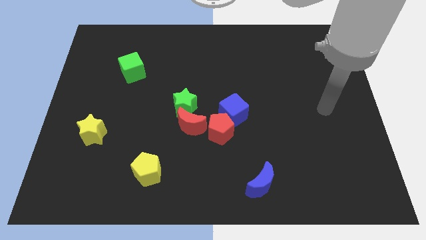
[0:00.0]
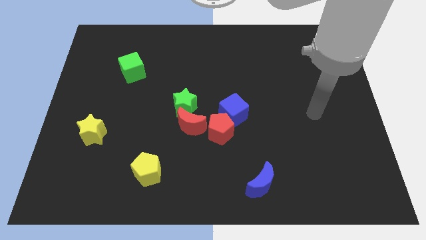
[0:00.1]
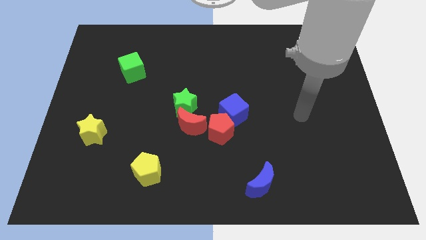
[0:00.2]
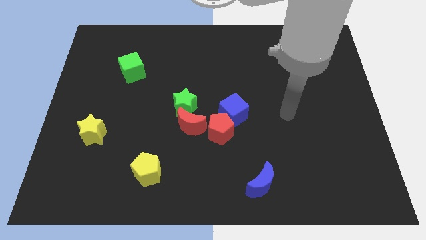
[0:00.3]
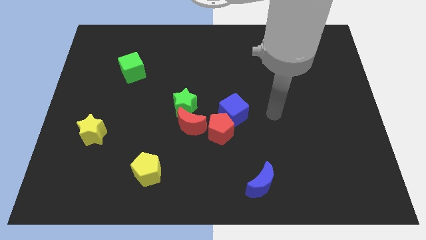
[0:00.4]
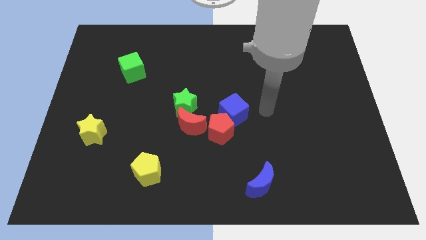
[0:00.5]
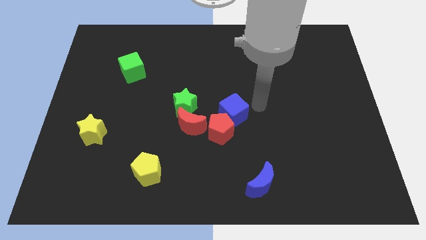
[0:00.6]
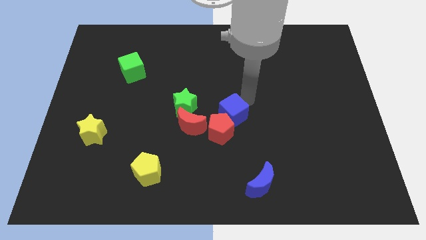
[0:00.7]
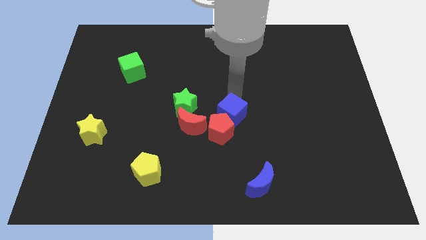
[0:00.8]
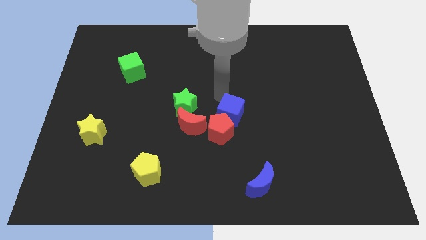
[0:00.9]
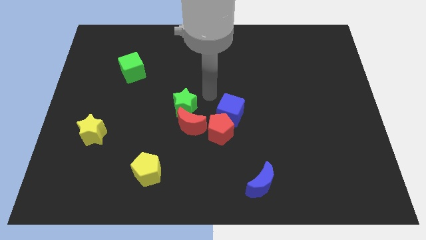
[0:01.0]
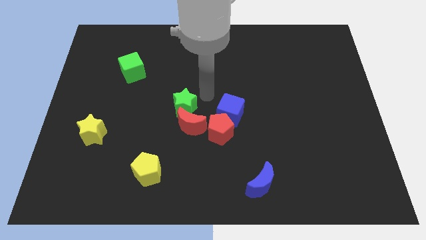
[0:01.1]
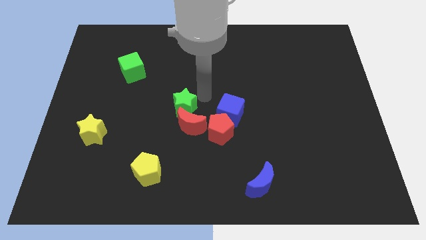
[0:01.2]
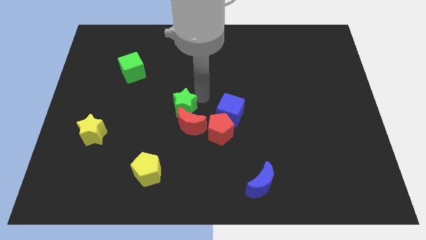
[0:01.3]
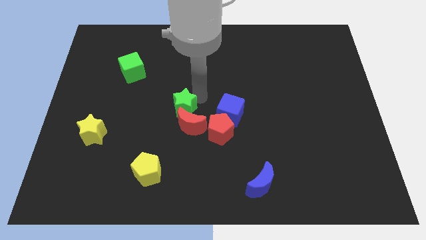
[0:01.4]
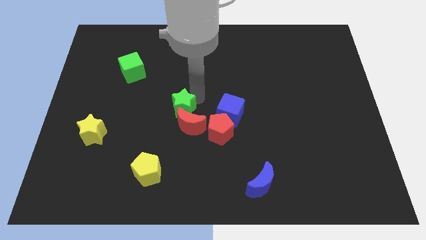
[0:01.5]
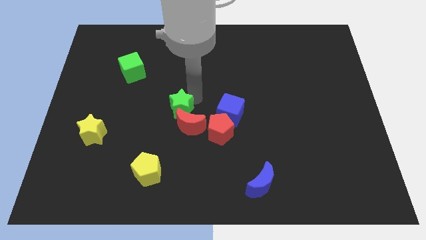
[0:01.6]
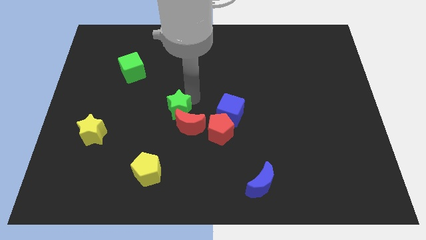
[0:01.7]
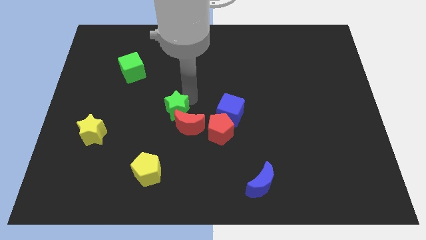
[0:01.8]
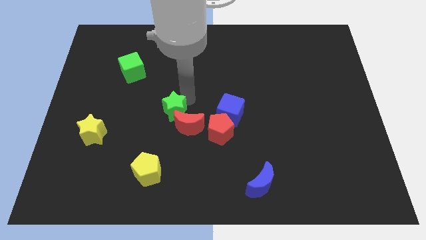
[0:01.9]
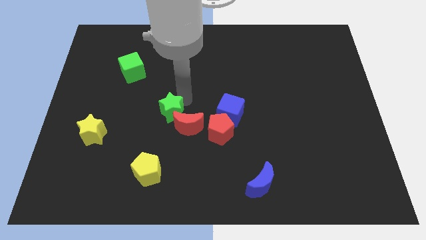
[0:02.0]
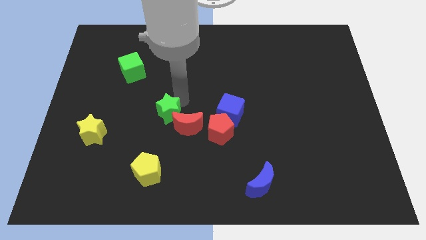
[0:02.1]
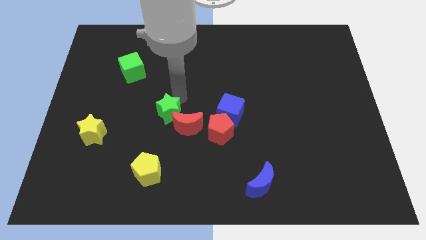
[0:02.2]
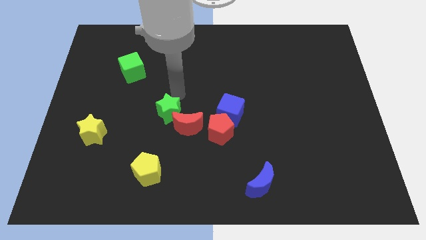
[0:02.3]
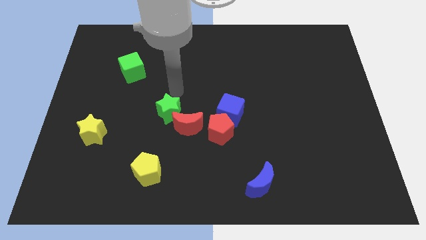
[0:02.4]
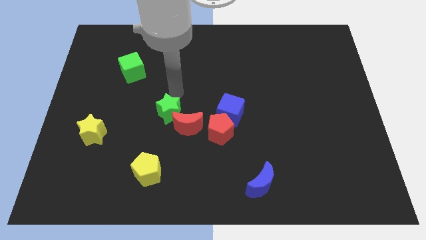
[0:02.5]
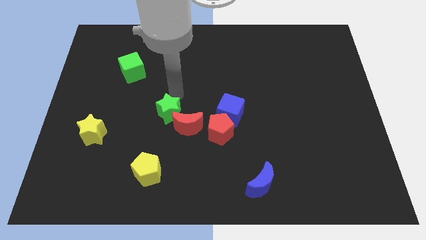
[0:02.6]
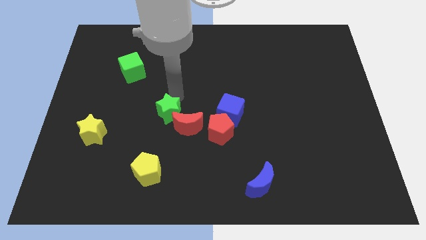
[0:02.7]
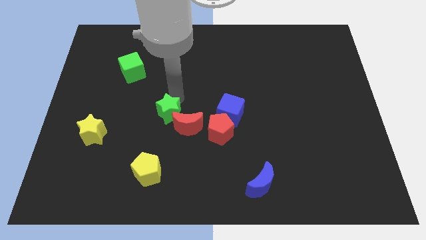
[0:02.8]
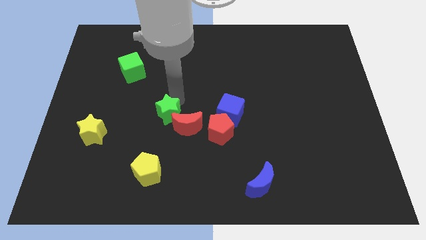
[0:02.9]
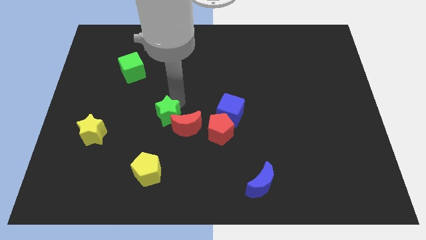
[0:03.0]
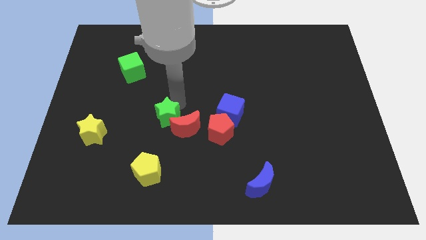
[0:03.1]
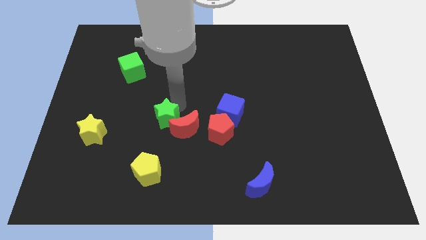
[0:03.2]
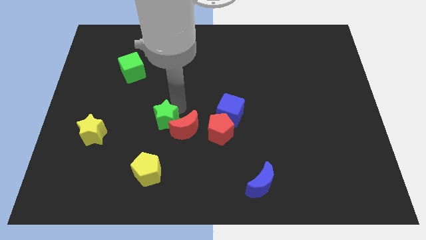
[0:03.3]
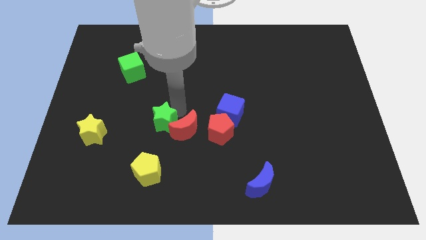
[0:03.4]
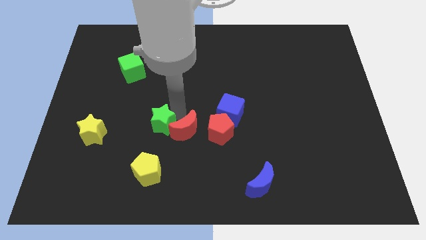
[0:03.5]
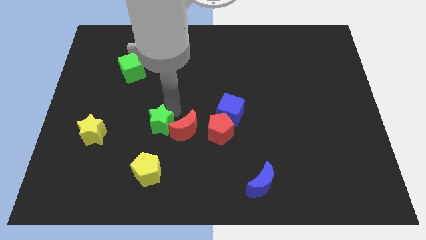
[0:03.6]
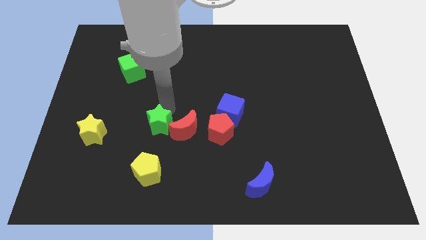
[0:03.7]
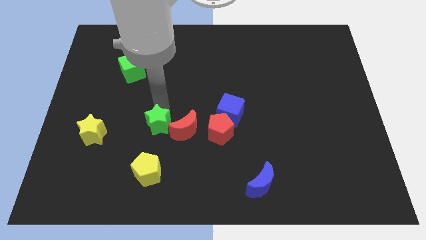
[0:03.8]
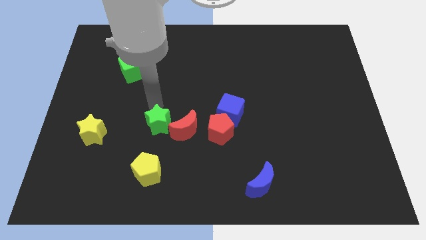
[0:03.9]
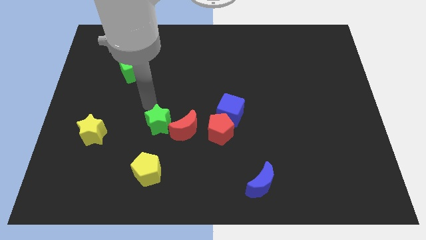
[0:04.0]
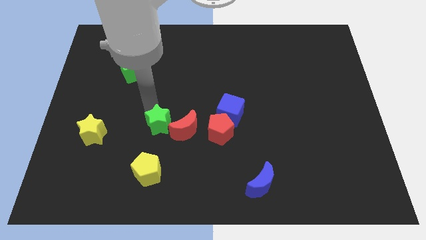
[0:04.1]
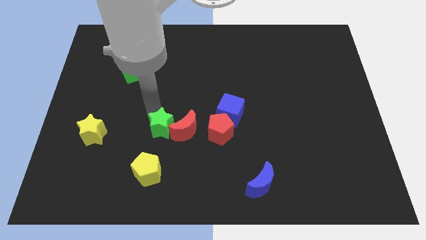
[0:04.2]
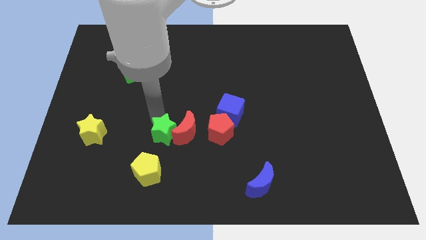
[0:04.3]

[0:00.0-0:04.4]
slightly move the green star downwards

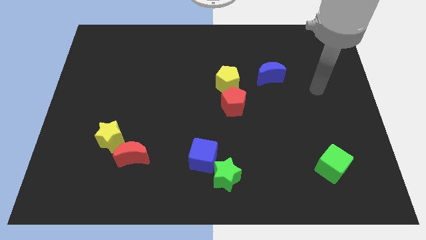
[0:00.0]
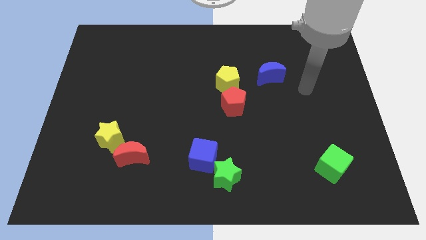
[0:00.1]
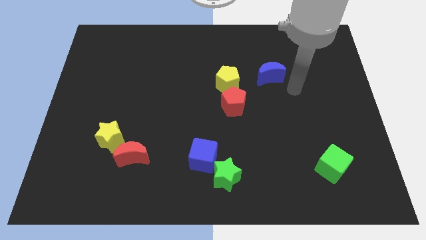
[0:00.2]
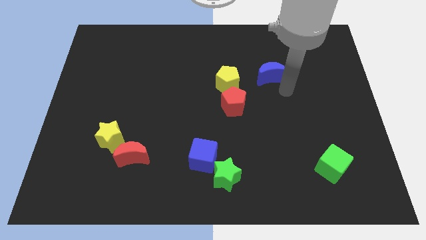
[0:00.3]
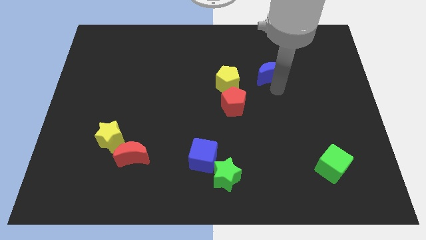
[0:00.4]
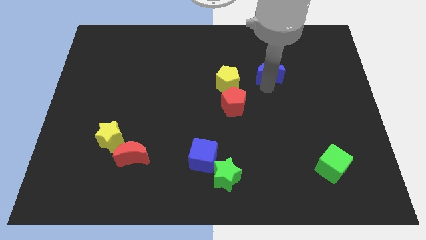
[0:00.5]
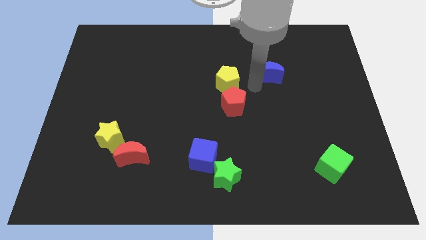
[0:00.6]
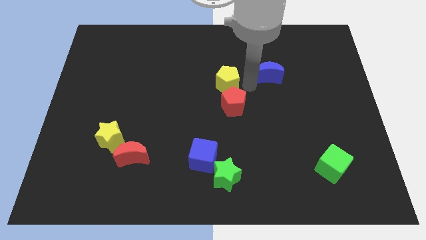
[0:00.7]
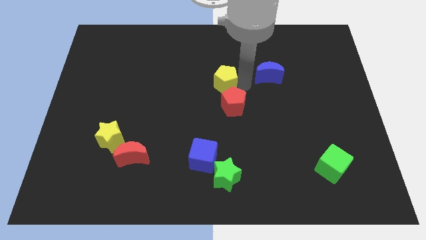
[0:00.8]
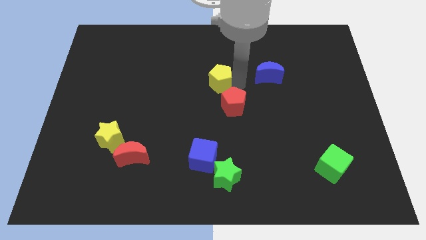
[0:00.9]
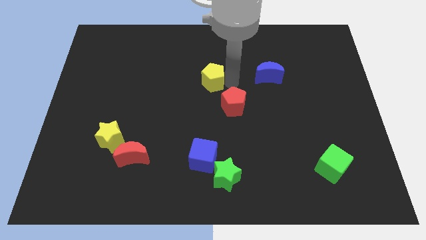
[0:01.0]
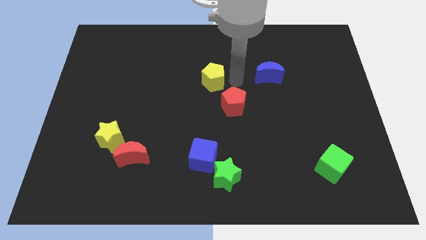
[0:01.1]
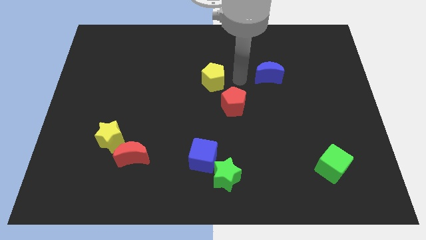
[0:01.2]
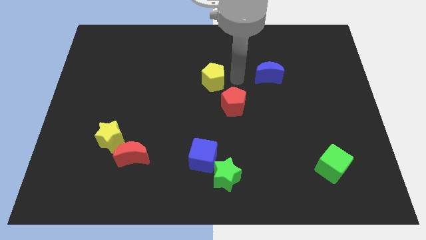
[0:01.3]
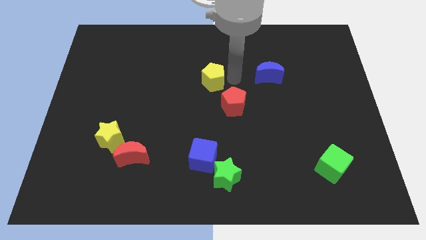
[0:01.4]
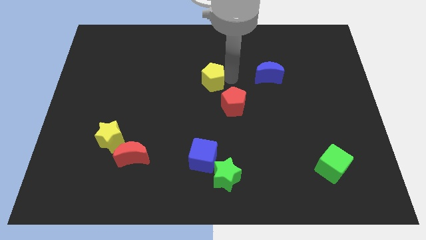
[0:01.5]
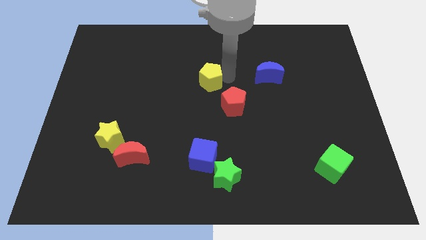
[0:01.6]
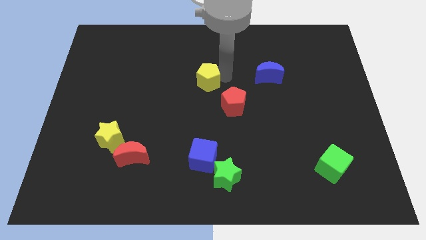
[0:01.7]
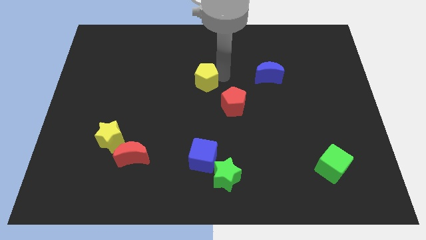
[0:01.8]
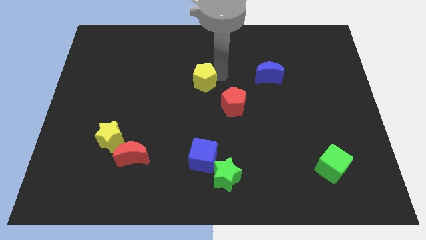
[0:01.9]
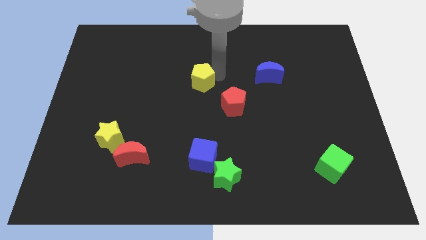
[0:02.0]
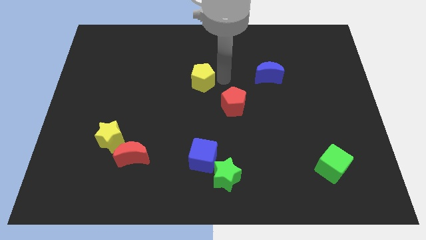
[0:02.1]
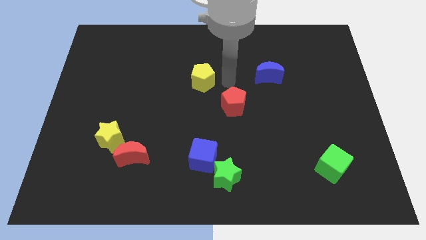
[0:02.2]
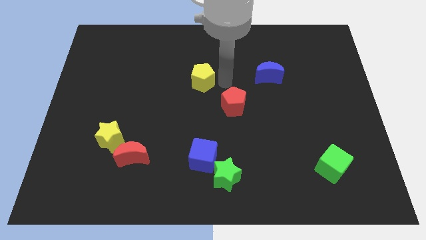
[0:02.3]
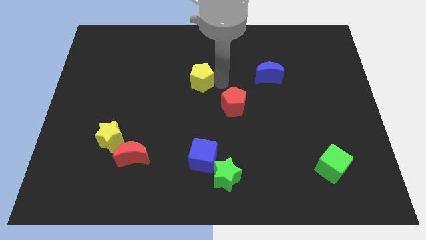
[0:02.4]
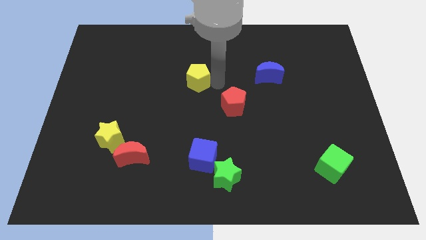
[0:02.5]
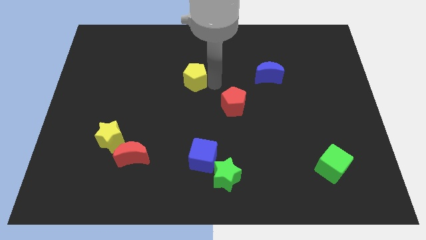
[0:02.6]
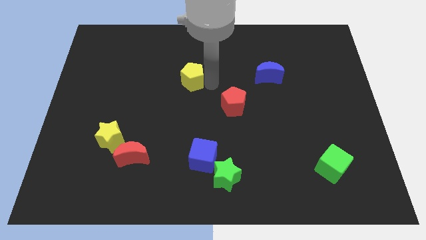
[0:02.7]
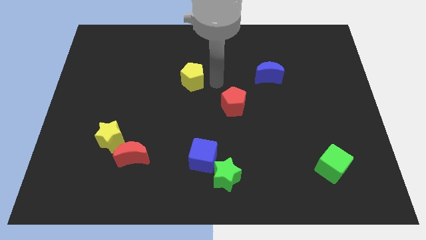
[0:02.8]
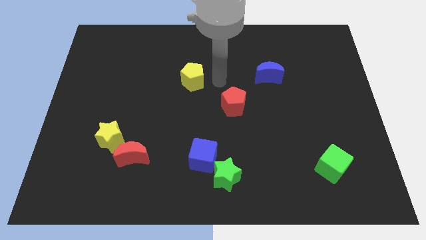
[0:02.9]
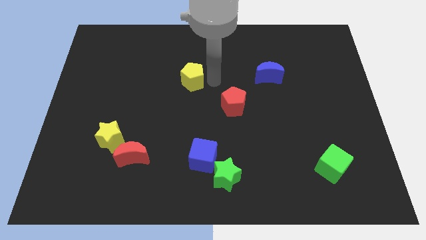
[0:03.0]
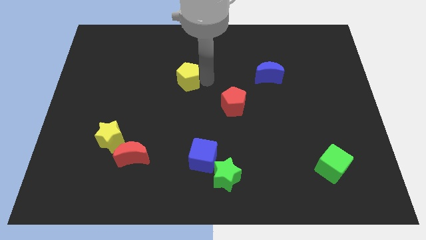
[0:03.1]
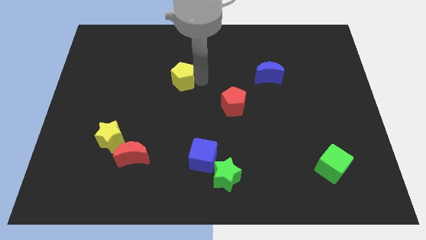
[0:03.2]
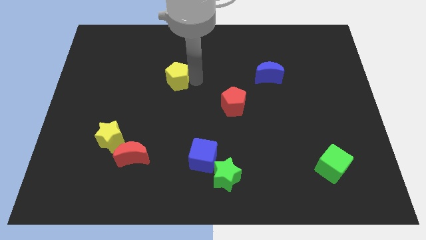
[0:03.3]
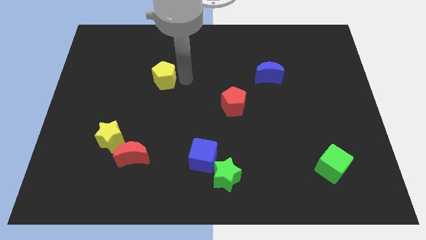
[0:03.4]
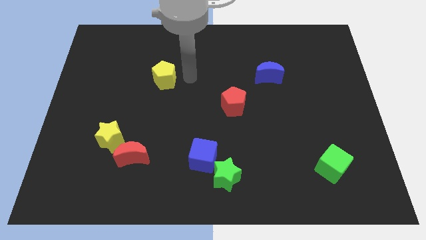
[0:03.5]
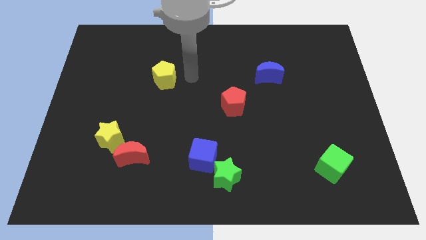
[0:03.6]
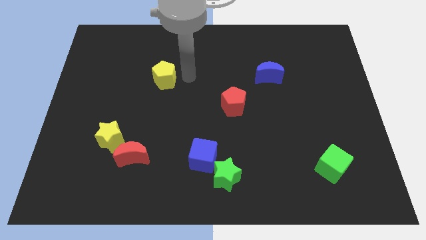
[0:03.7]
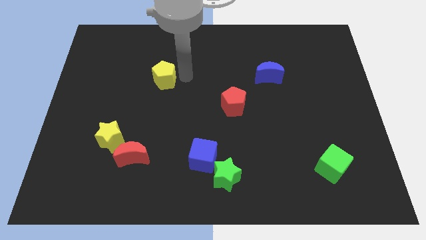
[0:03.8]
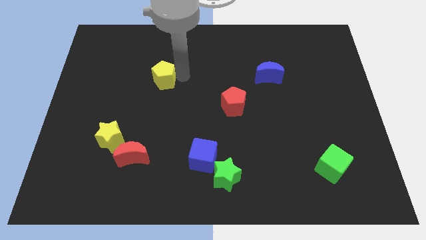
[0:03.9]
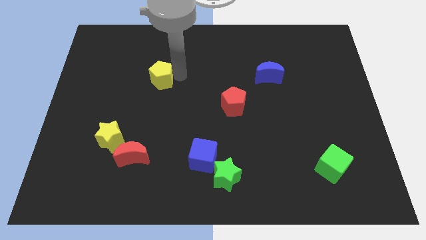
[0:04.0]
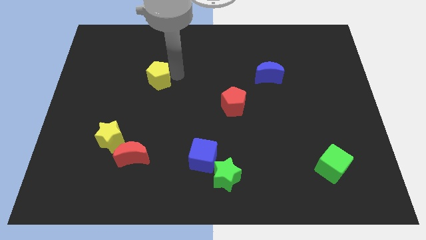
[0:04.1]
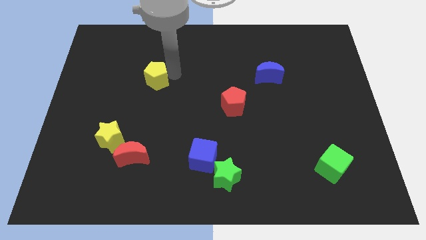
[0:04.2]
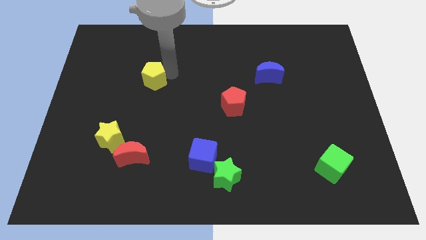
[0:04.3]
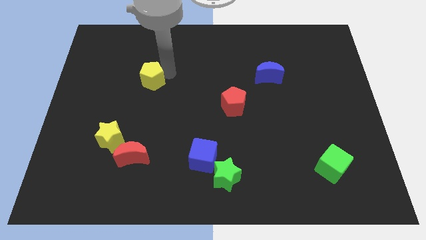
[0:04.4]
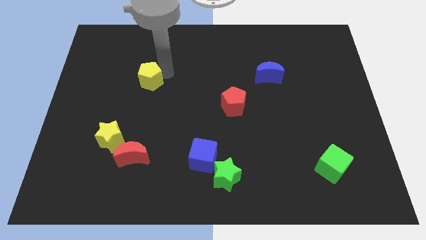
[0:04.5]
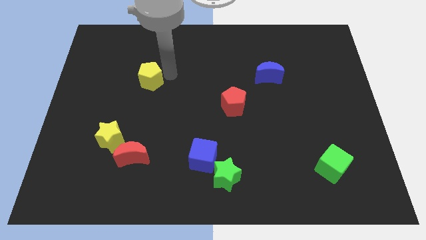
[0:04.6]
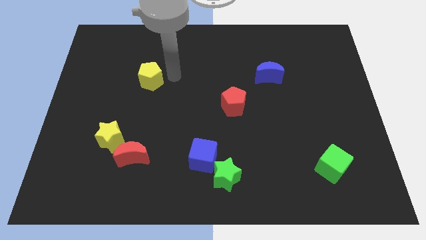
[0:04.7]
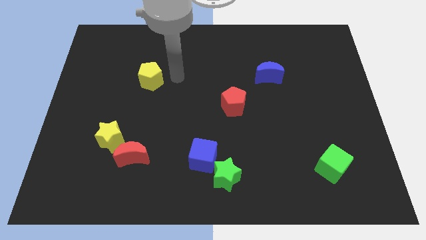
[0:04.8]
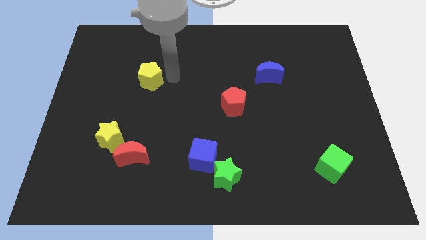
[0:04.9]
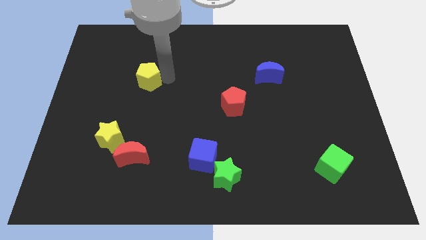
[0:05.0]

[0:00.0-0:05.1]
move the yellow pentagon to the left
